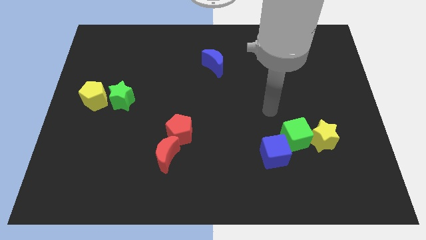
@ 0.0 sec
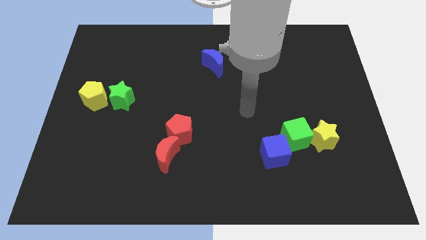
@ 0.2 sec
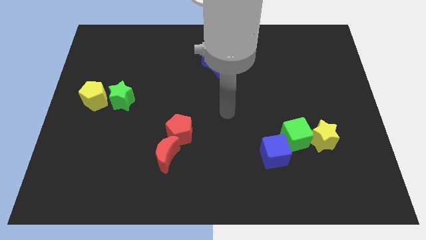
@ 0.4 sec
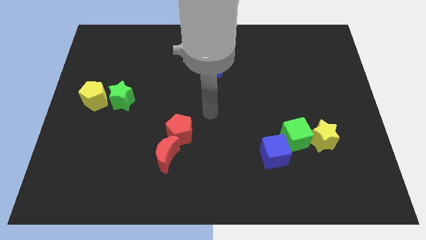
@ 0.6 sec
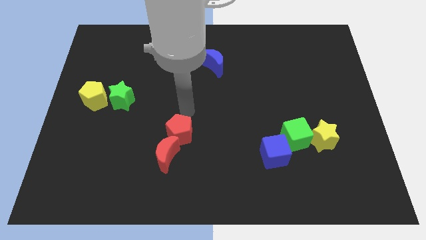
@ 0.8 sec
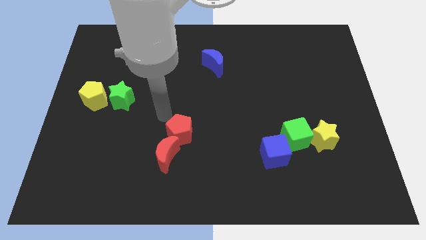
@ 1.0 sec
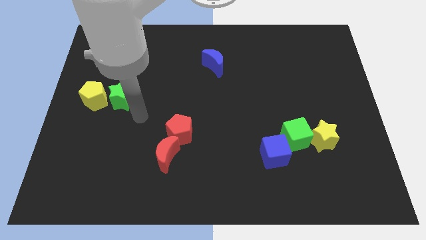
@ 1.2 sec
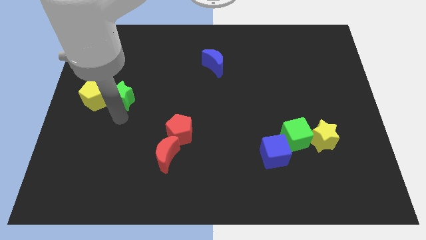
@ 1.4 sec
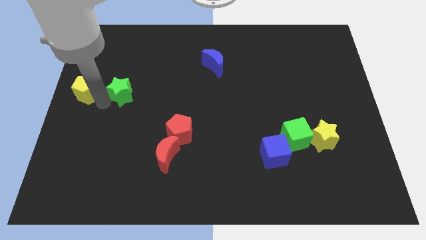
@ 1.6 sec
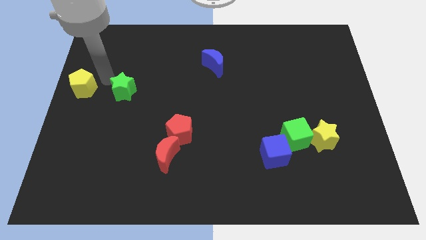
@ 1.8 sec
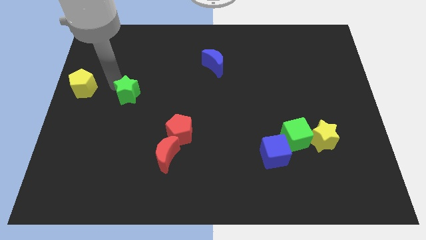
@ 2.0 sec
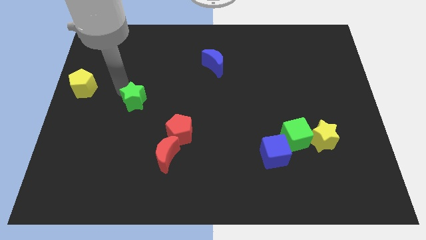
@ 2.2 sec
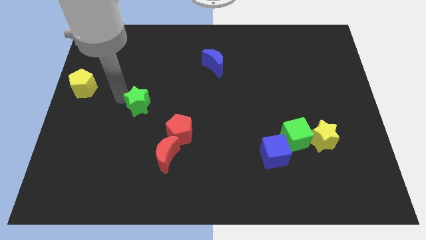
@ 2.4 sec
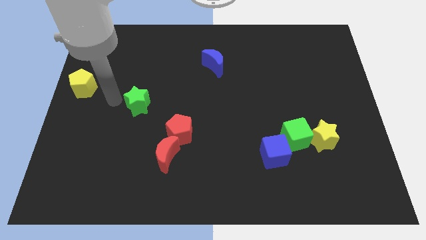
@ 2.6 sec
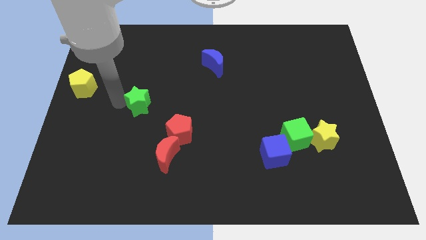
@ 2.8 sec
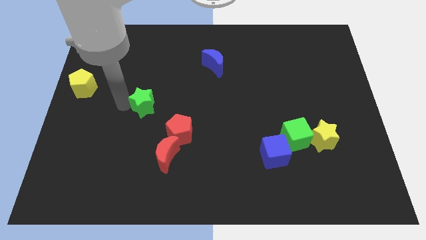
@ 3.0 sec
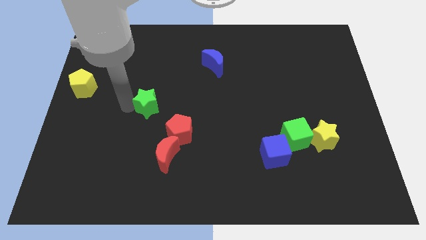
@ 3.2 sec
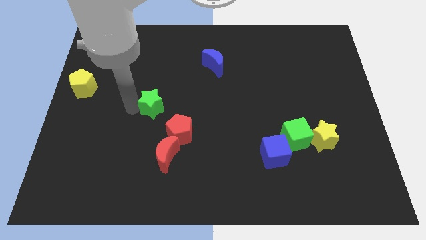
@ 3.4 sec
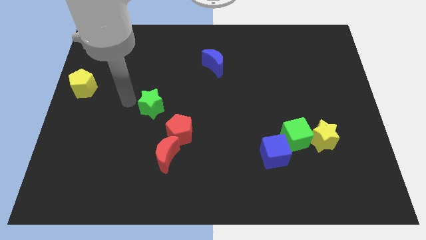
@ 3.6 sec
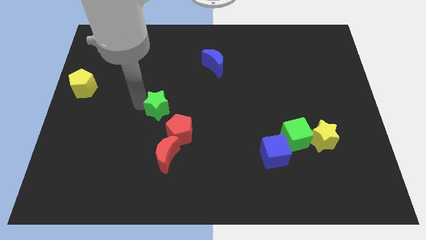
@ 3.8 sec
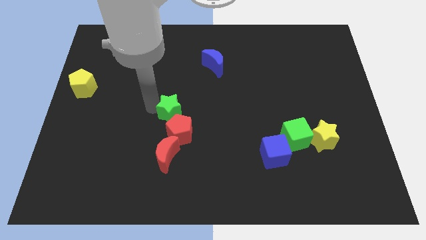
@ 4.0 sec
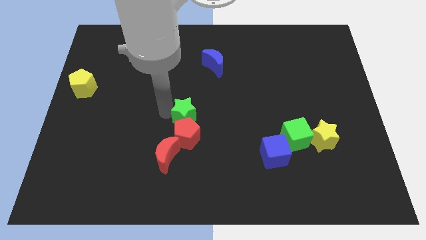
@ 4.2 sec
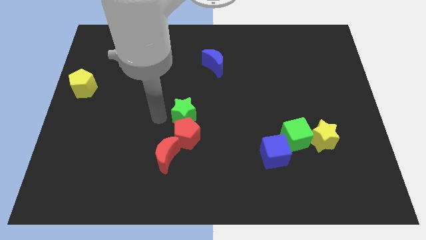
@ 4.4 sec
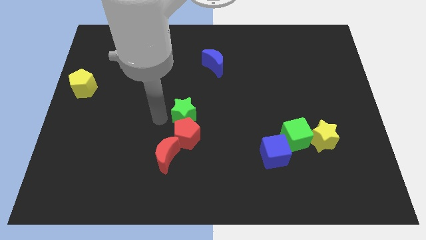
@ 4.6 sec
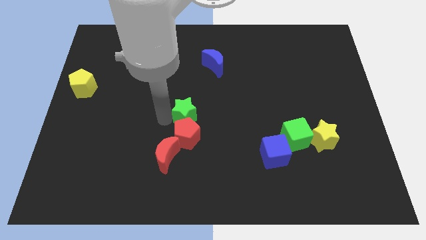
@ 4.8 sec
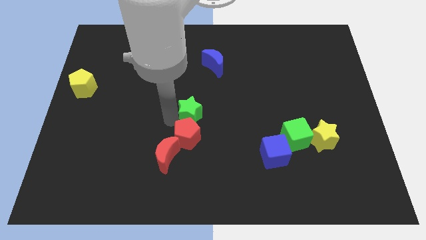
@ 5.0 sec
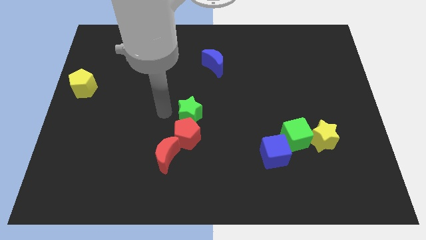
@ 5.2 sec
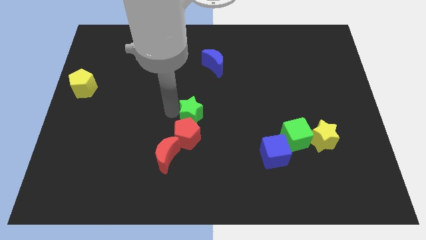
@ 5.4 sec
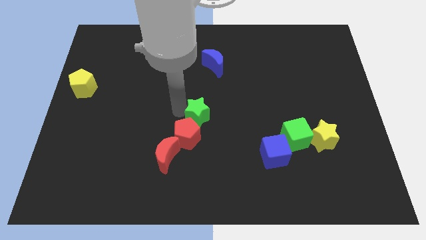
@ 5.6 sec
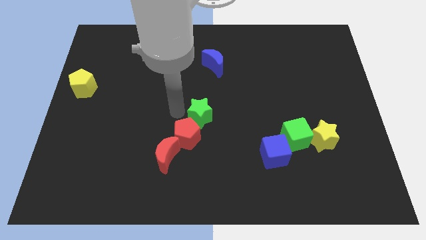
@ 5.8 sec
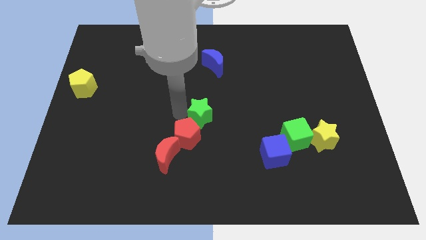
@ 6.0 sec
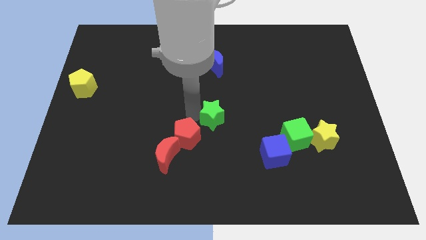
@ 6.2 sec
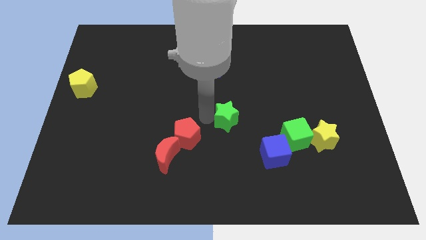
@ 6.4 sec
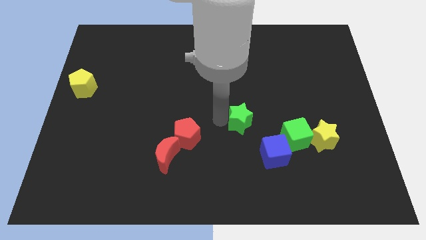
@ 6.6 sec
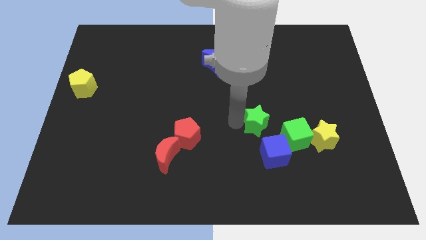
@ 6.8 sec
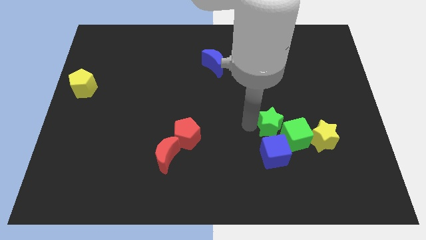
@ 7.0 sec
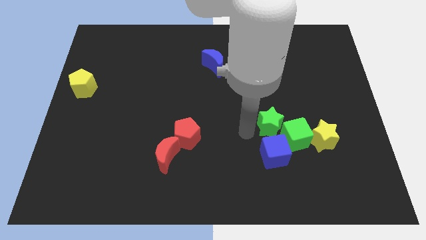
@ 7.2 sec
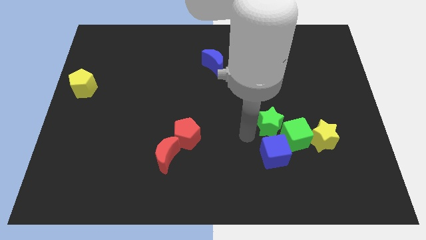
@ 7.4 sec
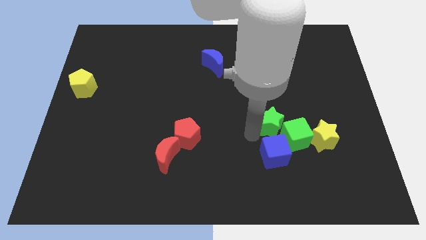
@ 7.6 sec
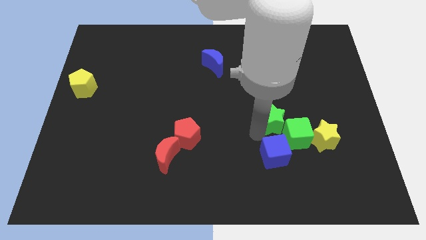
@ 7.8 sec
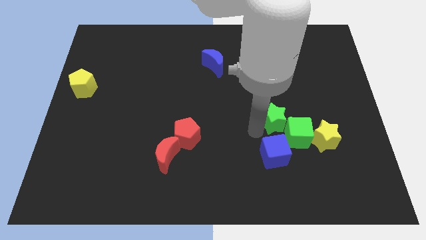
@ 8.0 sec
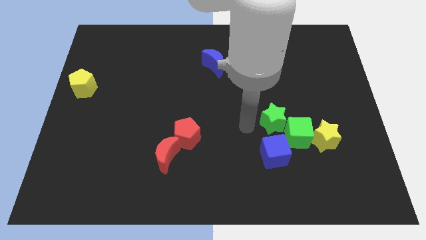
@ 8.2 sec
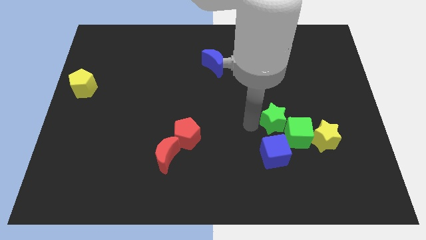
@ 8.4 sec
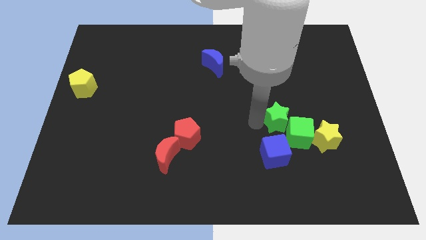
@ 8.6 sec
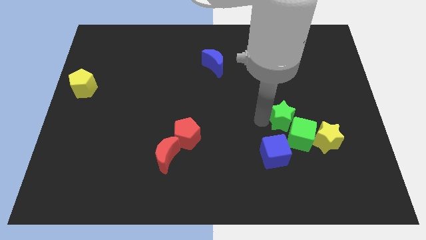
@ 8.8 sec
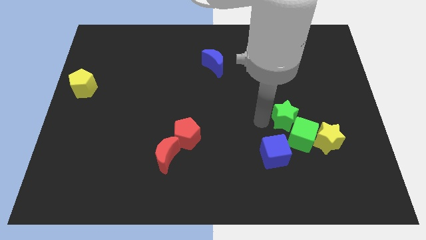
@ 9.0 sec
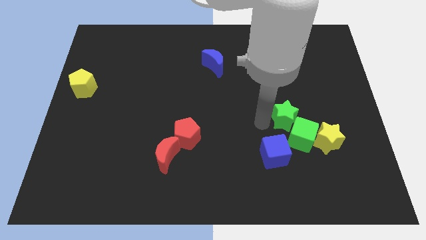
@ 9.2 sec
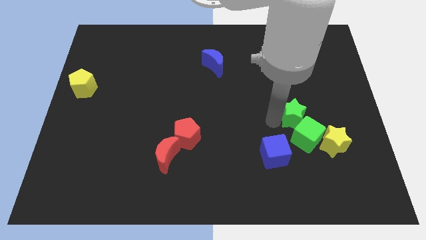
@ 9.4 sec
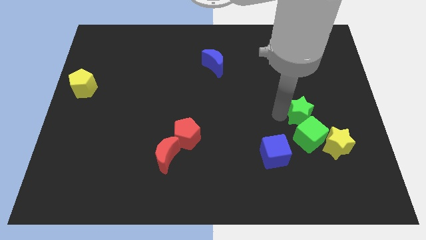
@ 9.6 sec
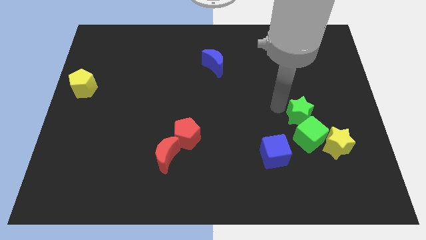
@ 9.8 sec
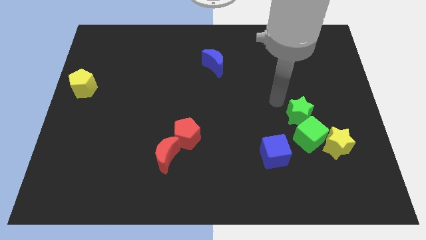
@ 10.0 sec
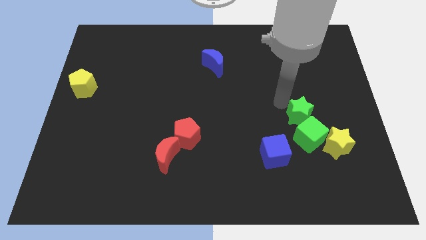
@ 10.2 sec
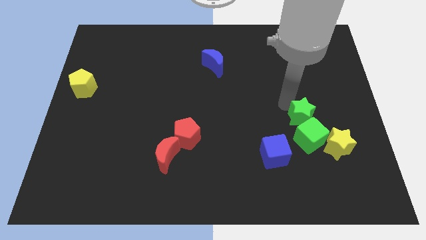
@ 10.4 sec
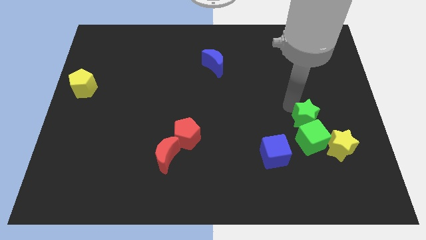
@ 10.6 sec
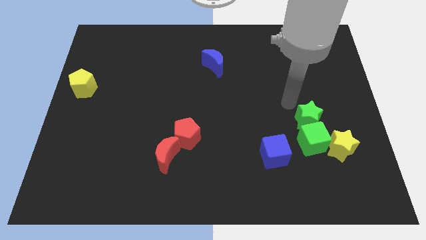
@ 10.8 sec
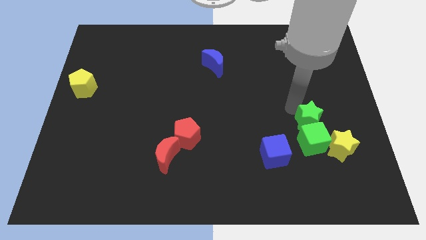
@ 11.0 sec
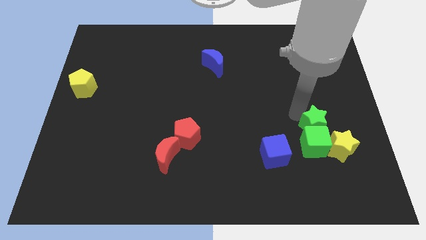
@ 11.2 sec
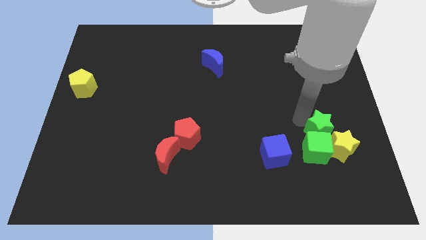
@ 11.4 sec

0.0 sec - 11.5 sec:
move the green star towards the yellow star

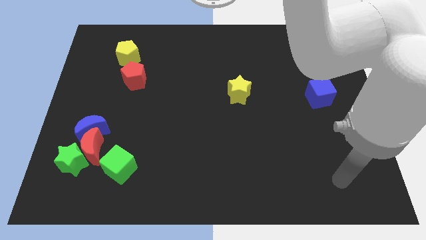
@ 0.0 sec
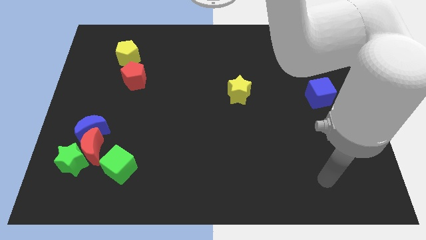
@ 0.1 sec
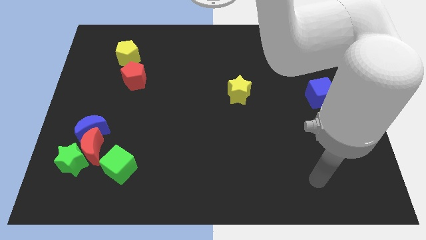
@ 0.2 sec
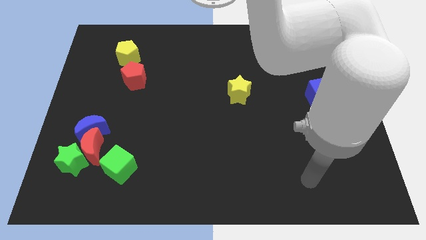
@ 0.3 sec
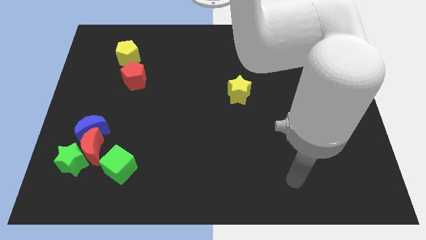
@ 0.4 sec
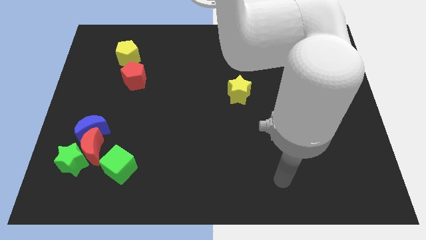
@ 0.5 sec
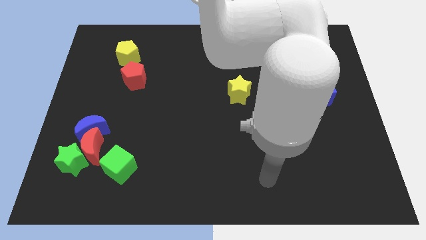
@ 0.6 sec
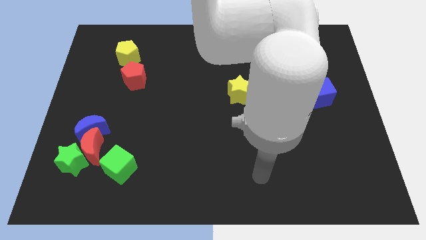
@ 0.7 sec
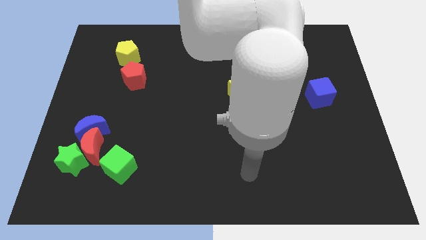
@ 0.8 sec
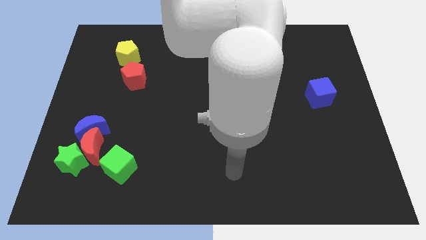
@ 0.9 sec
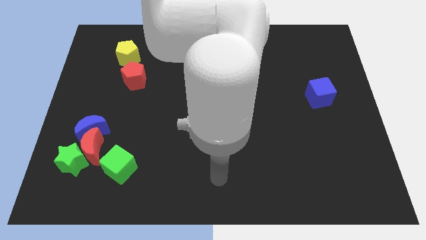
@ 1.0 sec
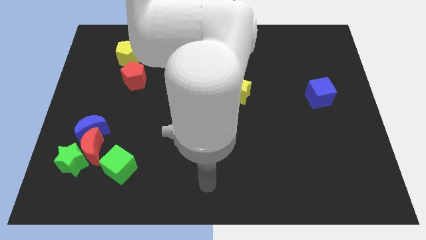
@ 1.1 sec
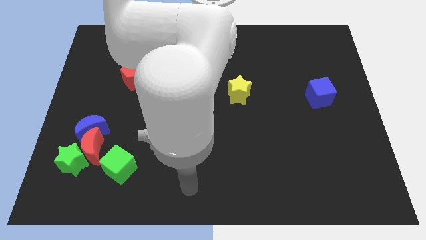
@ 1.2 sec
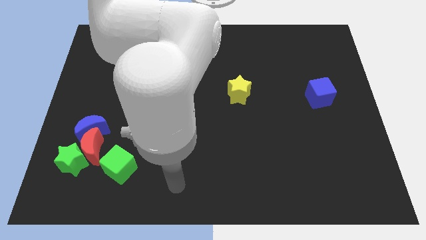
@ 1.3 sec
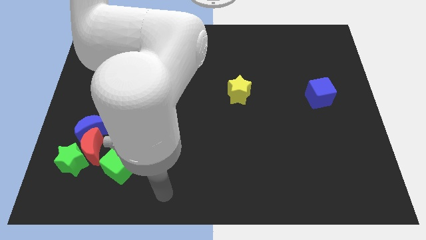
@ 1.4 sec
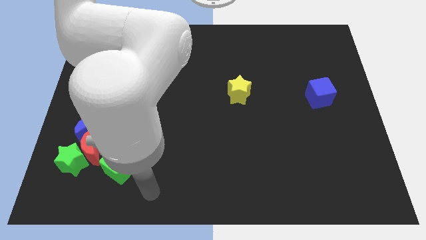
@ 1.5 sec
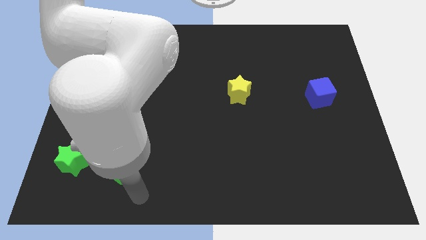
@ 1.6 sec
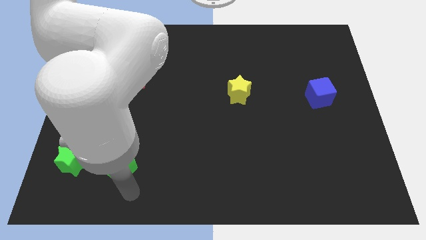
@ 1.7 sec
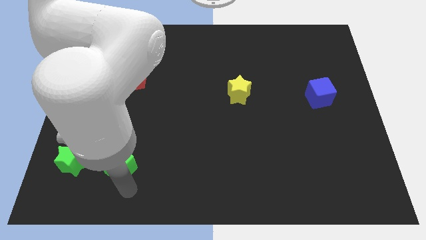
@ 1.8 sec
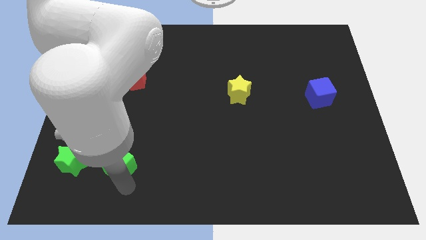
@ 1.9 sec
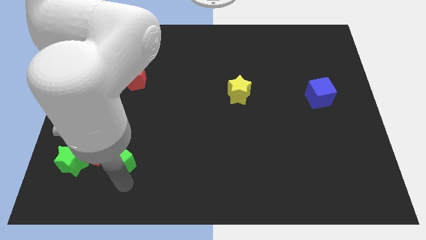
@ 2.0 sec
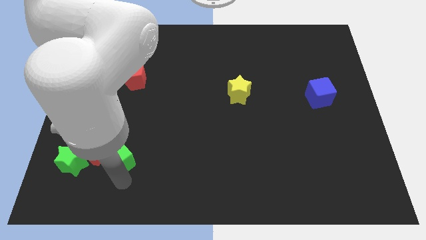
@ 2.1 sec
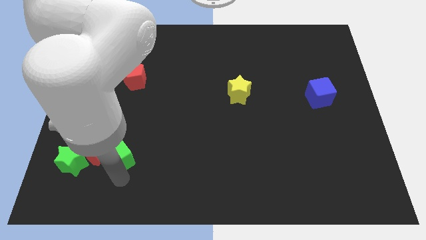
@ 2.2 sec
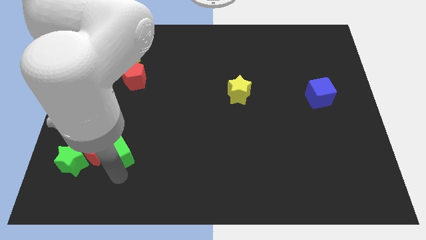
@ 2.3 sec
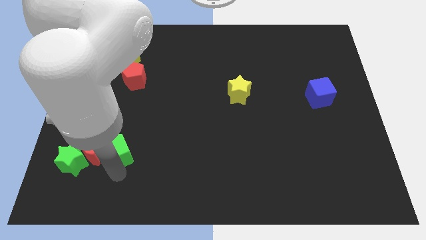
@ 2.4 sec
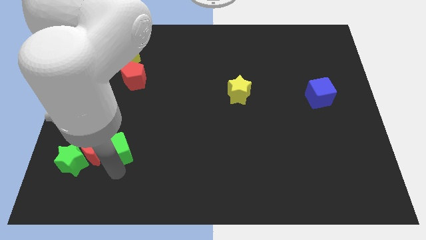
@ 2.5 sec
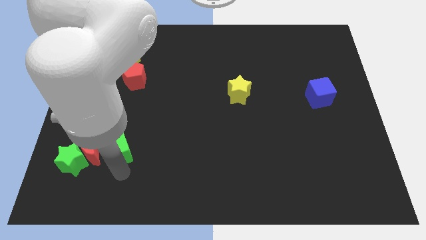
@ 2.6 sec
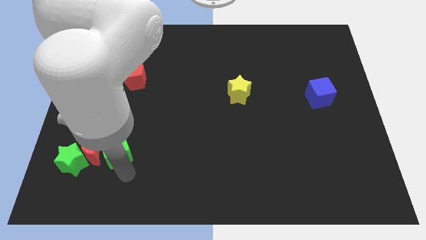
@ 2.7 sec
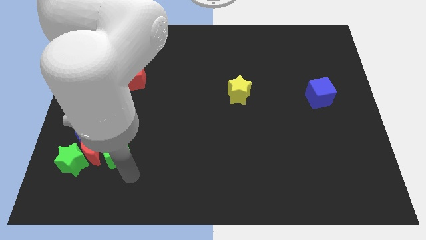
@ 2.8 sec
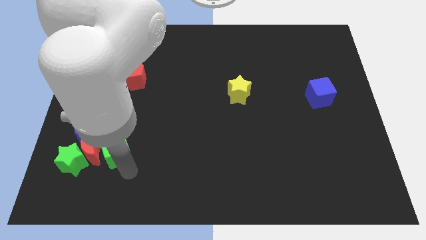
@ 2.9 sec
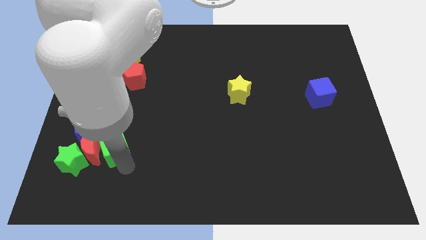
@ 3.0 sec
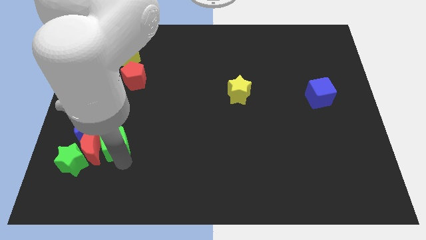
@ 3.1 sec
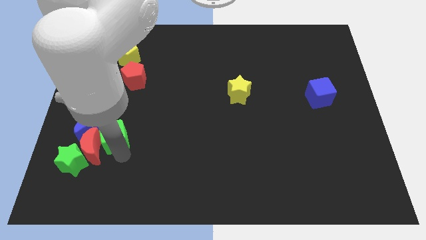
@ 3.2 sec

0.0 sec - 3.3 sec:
put the green cube to the blue moon
